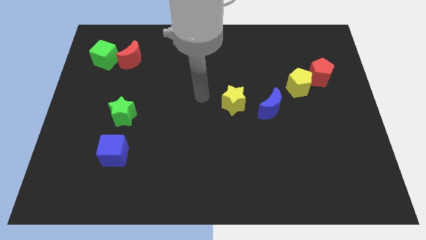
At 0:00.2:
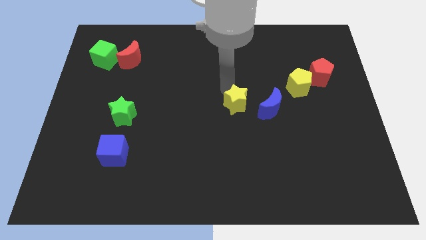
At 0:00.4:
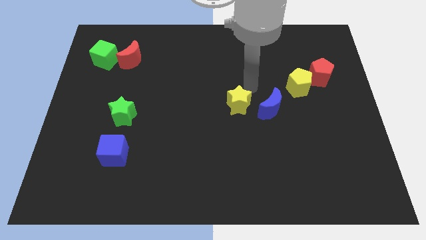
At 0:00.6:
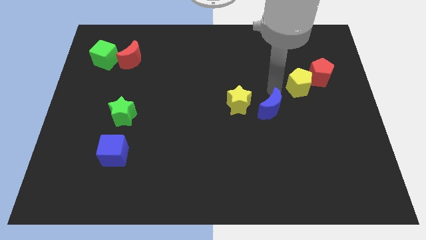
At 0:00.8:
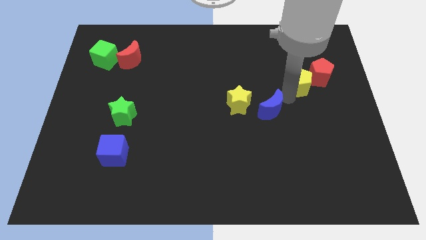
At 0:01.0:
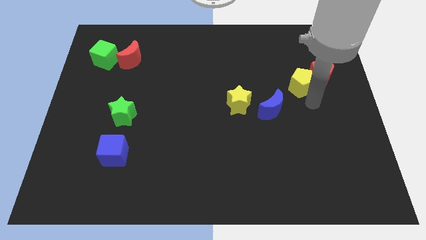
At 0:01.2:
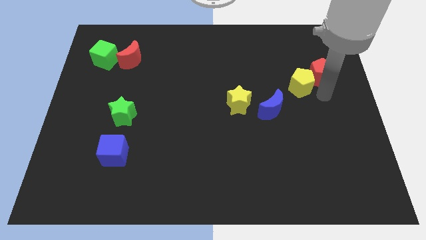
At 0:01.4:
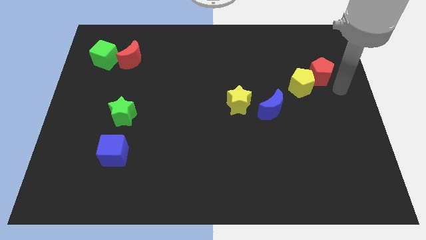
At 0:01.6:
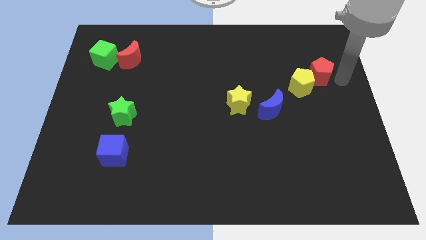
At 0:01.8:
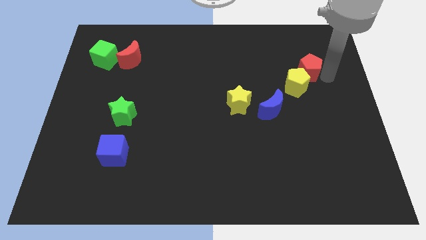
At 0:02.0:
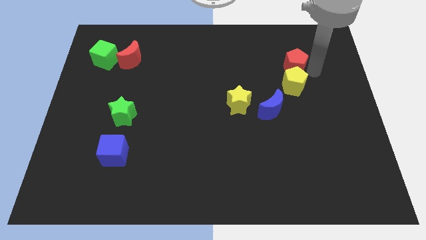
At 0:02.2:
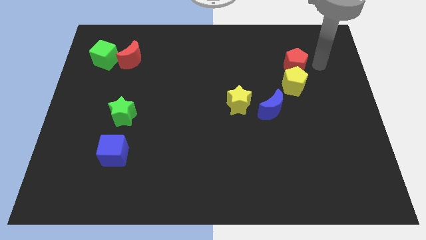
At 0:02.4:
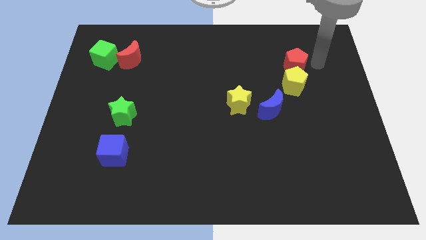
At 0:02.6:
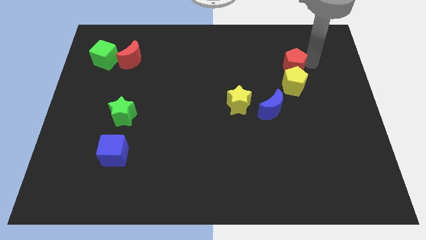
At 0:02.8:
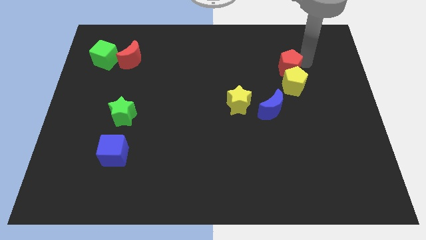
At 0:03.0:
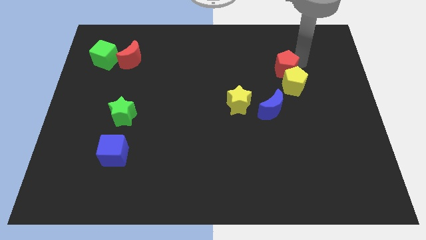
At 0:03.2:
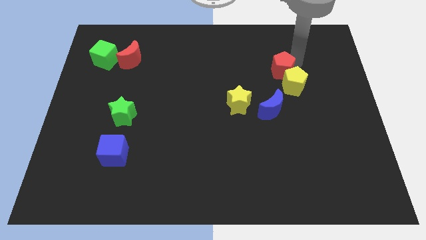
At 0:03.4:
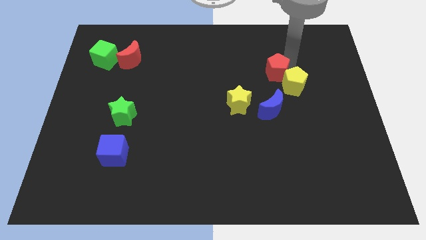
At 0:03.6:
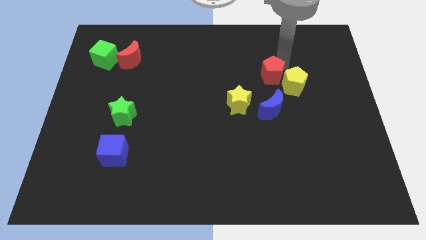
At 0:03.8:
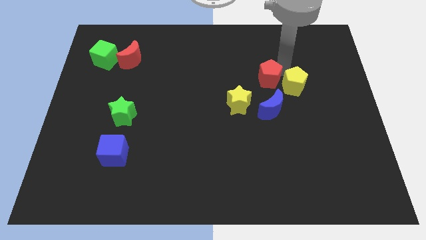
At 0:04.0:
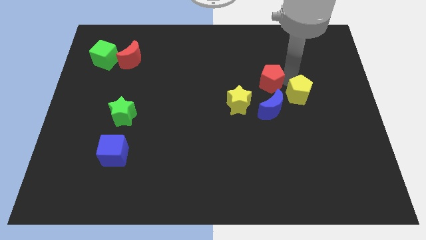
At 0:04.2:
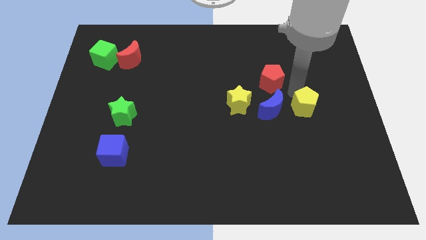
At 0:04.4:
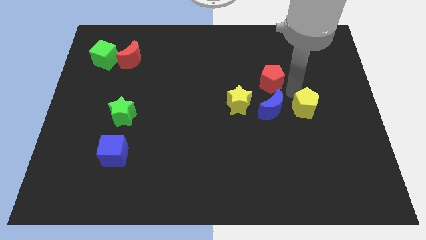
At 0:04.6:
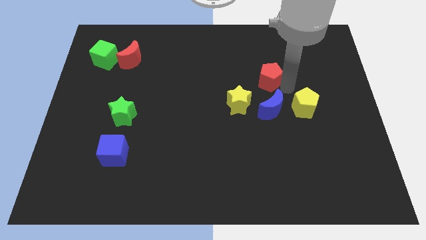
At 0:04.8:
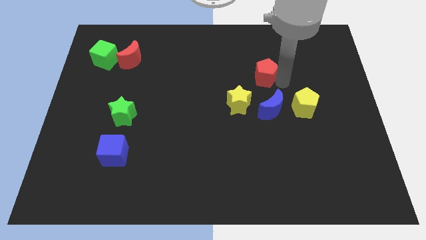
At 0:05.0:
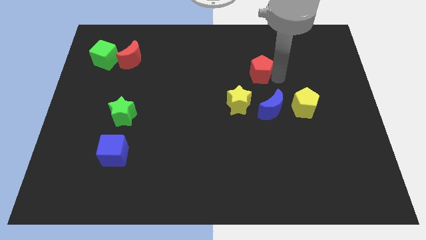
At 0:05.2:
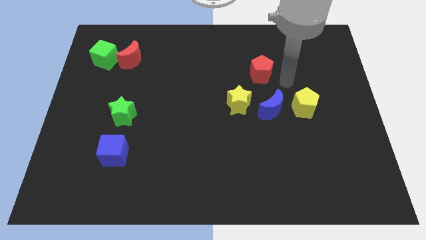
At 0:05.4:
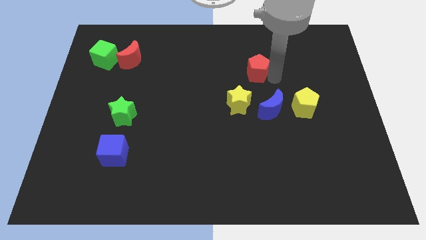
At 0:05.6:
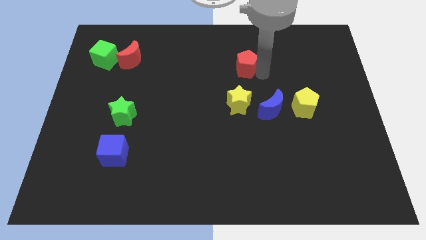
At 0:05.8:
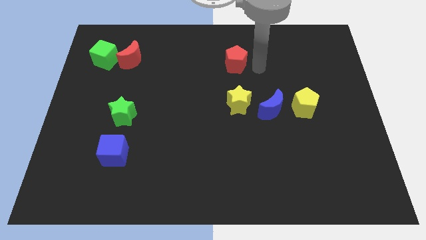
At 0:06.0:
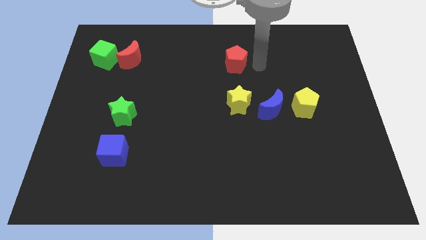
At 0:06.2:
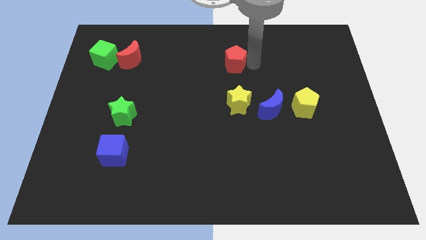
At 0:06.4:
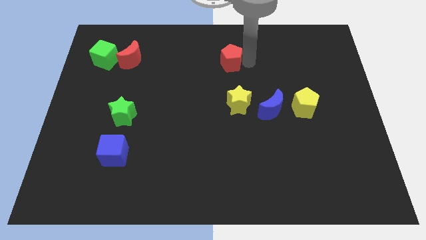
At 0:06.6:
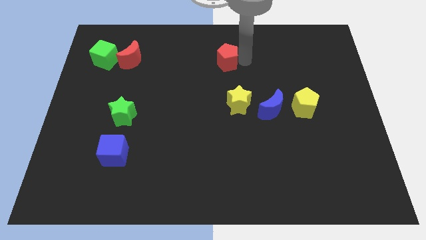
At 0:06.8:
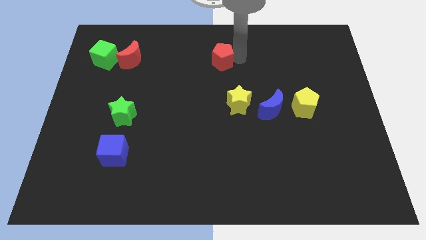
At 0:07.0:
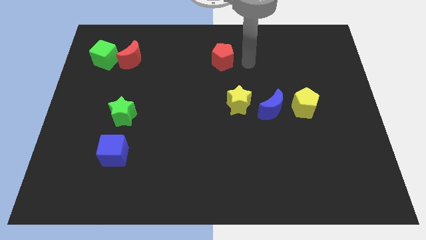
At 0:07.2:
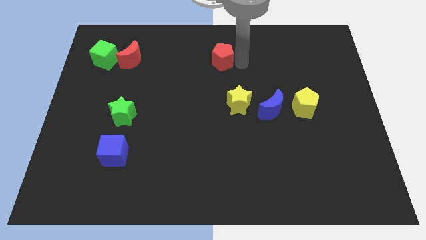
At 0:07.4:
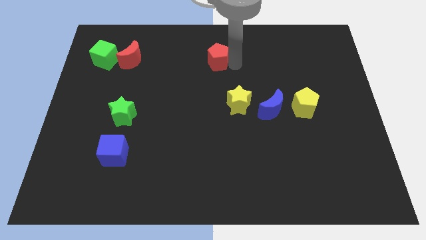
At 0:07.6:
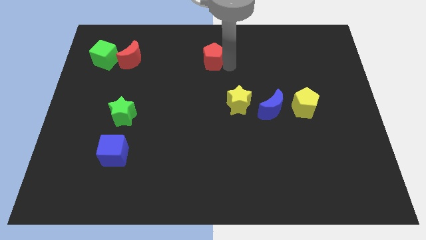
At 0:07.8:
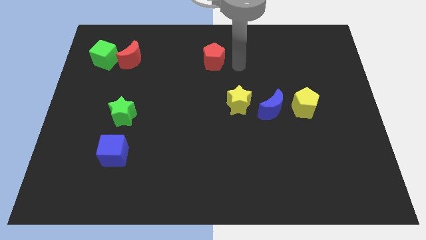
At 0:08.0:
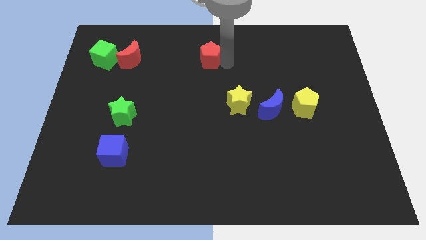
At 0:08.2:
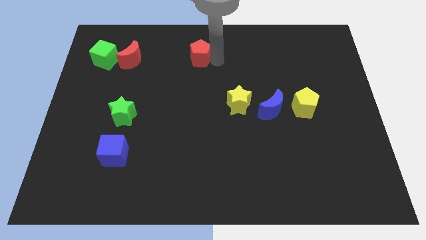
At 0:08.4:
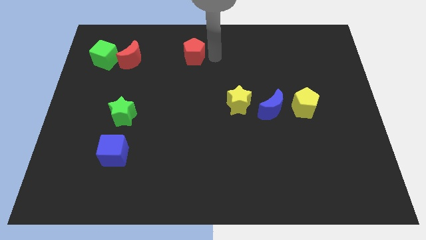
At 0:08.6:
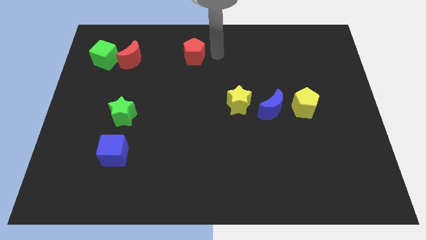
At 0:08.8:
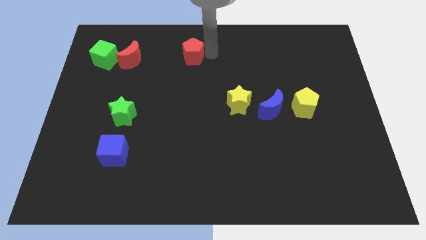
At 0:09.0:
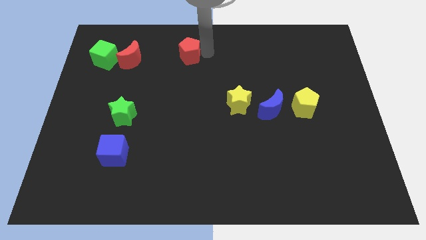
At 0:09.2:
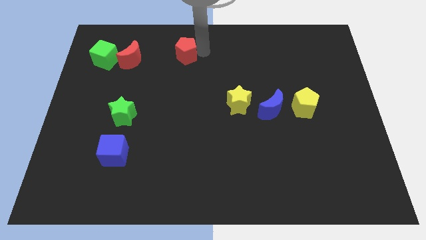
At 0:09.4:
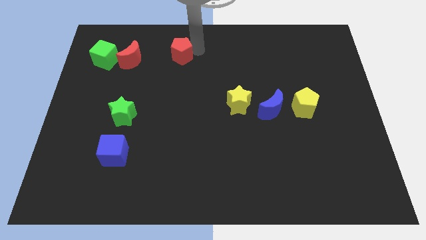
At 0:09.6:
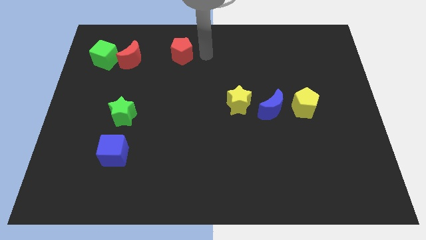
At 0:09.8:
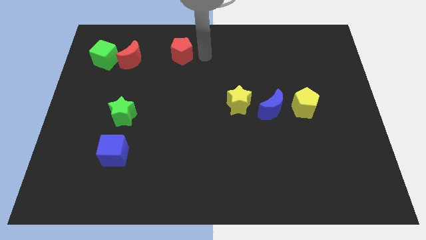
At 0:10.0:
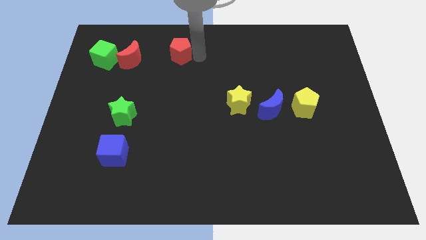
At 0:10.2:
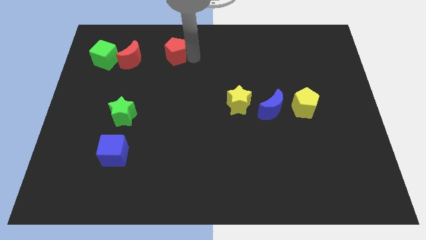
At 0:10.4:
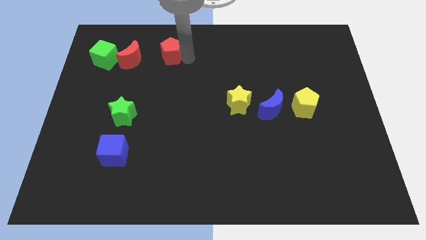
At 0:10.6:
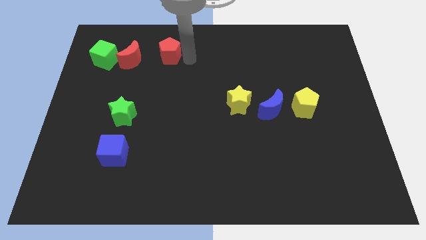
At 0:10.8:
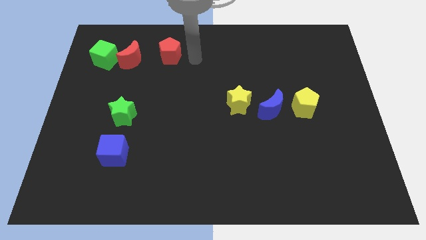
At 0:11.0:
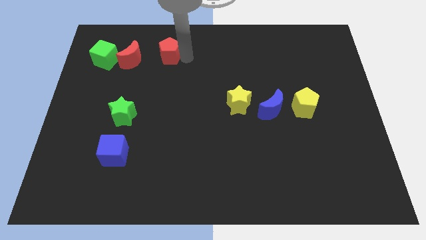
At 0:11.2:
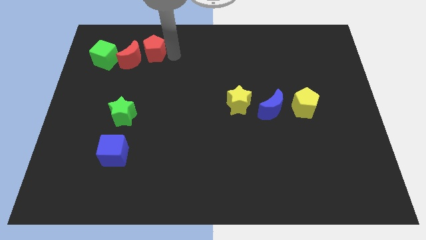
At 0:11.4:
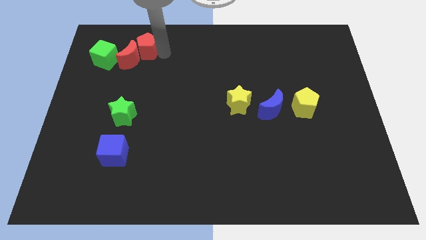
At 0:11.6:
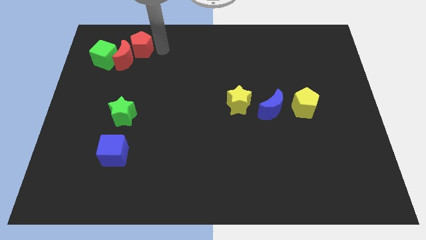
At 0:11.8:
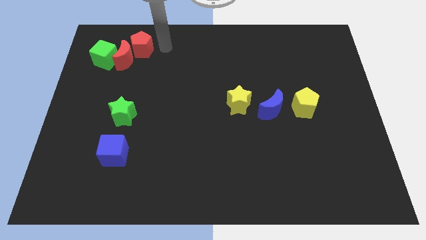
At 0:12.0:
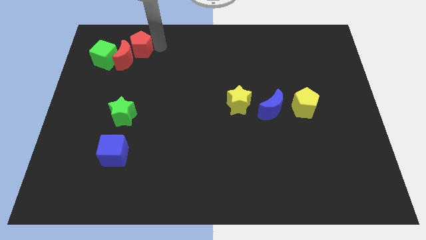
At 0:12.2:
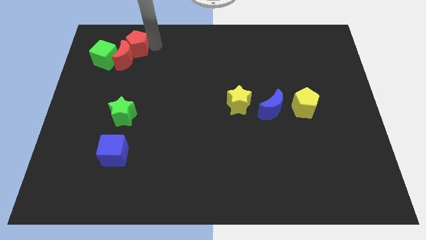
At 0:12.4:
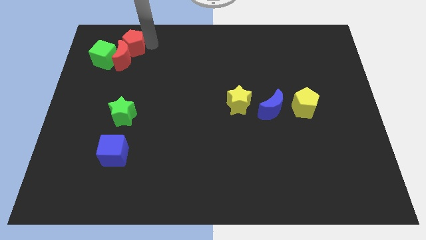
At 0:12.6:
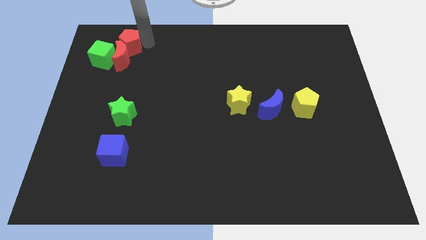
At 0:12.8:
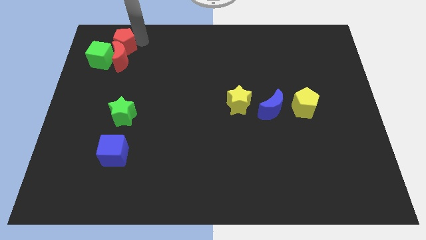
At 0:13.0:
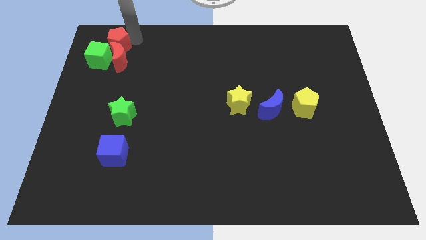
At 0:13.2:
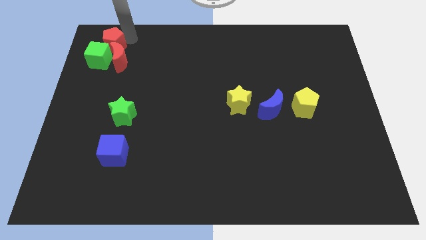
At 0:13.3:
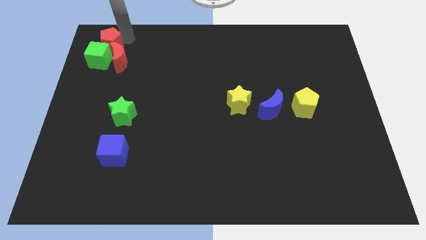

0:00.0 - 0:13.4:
put the red pentagon towards the green cube
